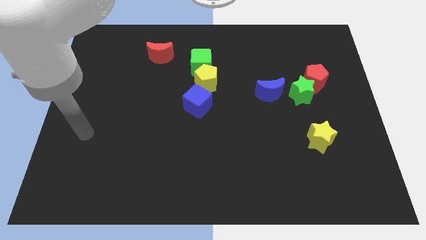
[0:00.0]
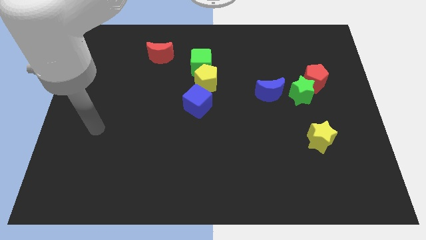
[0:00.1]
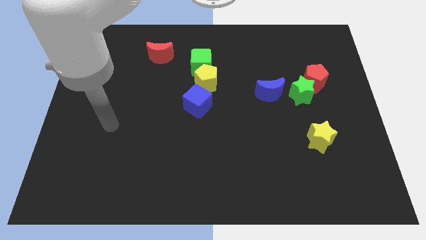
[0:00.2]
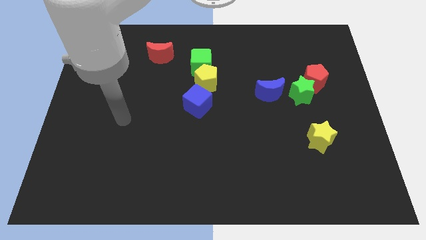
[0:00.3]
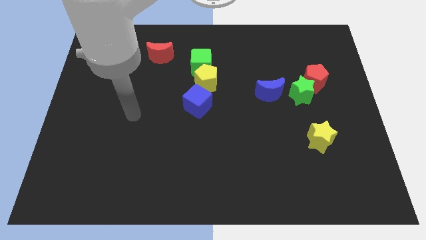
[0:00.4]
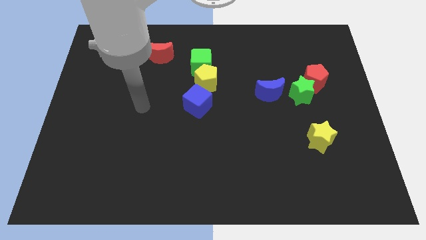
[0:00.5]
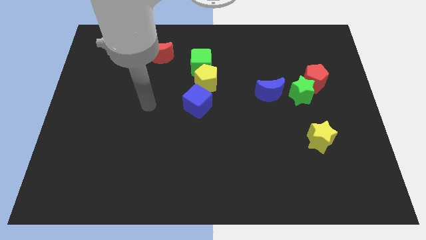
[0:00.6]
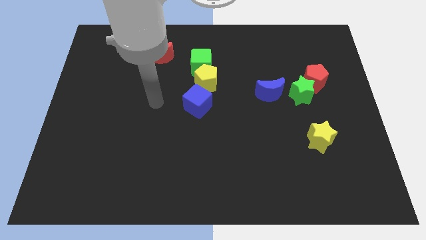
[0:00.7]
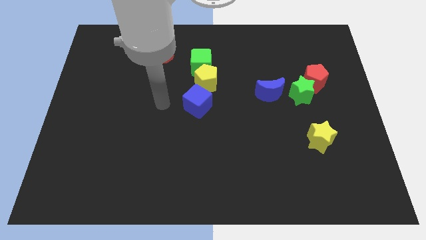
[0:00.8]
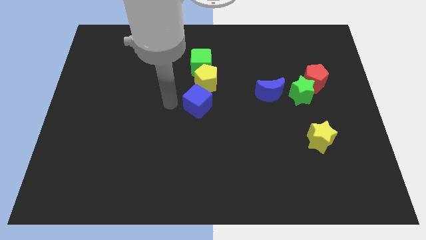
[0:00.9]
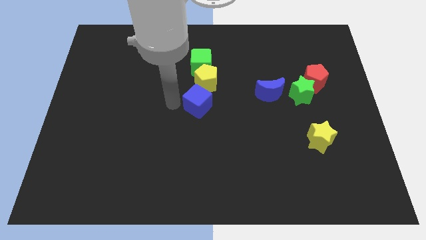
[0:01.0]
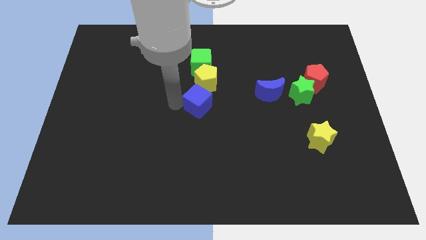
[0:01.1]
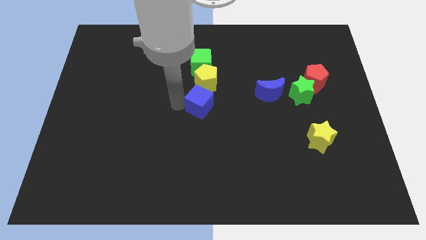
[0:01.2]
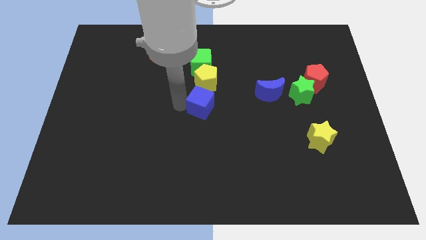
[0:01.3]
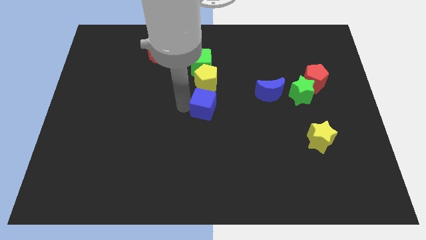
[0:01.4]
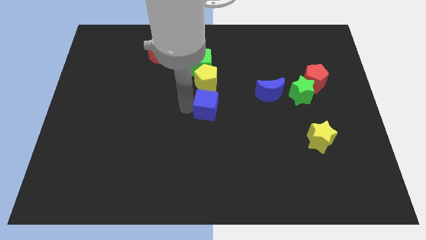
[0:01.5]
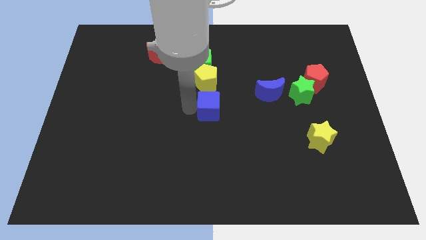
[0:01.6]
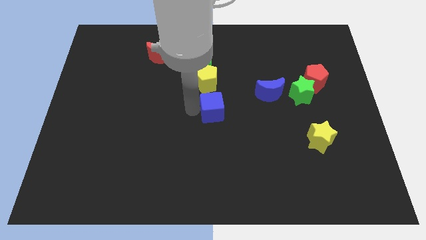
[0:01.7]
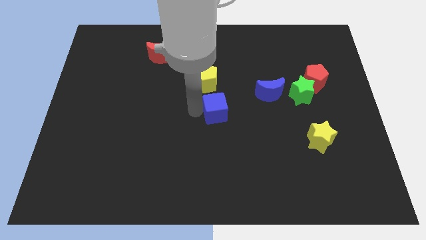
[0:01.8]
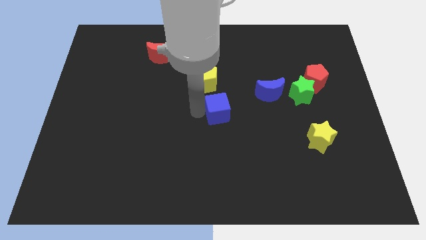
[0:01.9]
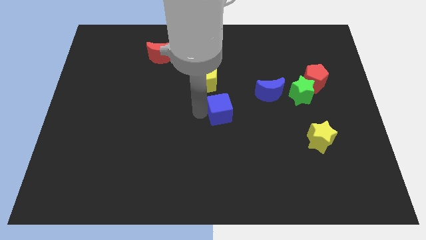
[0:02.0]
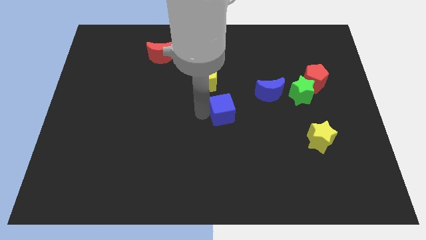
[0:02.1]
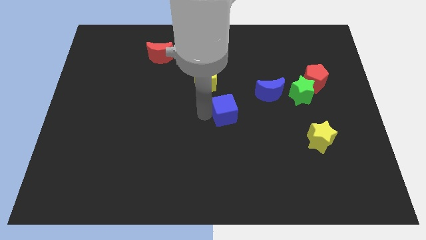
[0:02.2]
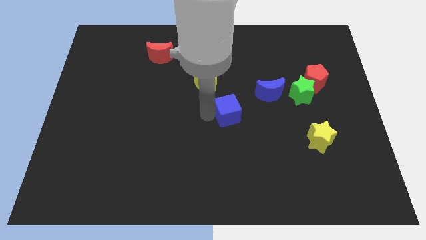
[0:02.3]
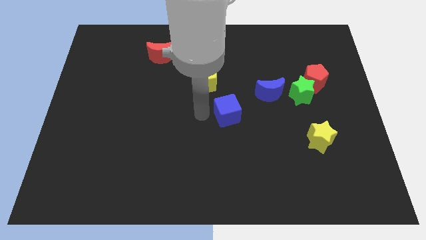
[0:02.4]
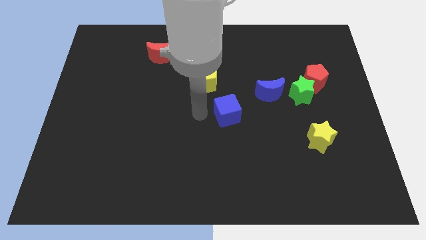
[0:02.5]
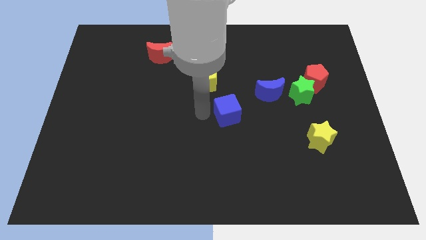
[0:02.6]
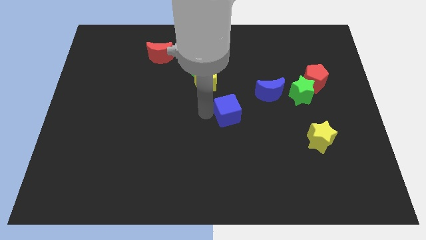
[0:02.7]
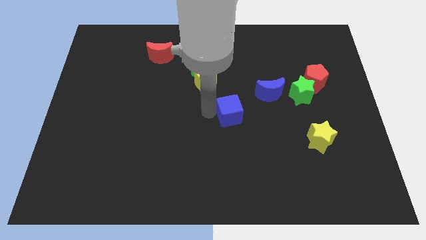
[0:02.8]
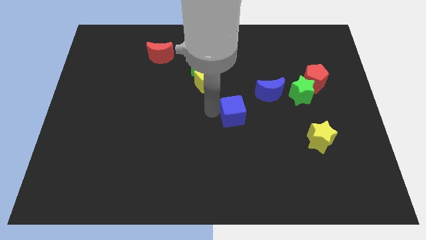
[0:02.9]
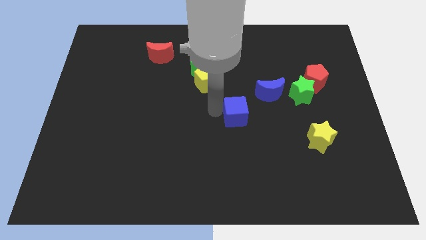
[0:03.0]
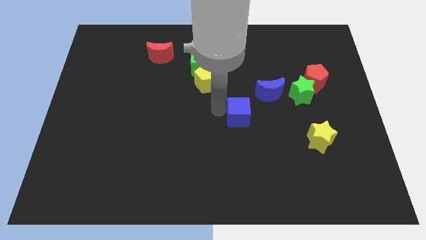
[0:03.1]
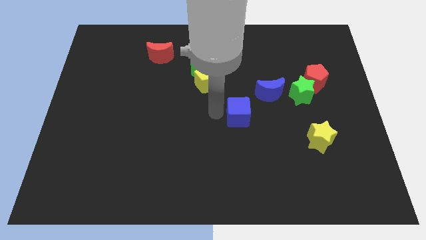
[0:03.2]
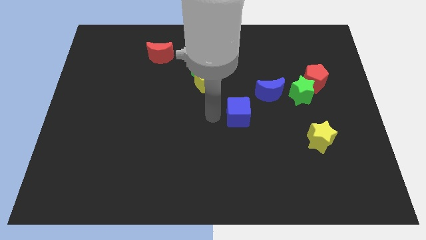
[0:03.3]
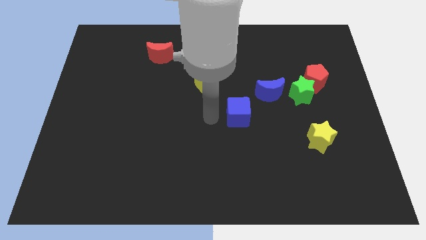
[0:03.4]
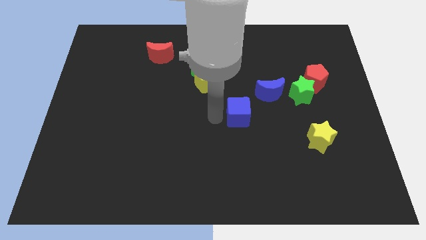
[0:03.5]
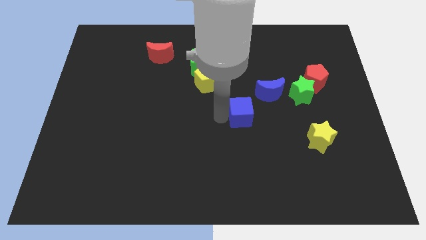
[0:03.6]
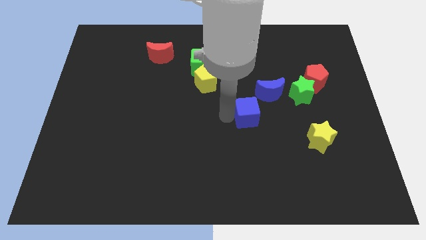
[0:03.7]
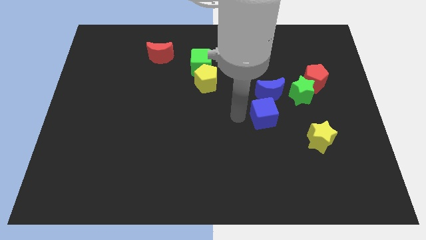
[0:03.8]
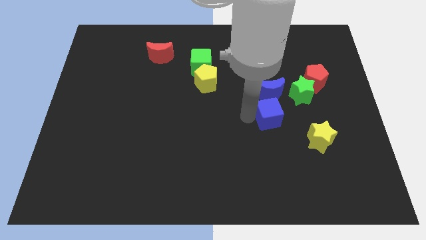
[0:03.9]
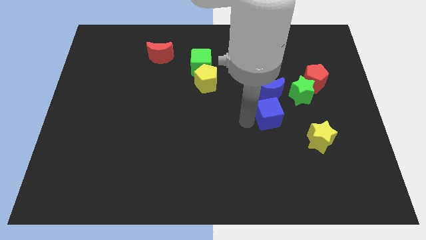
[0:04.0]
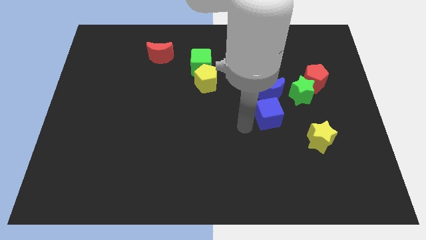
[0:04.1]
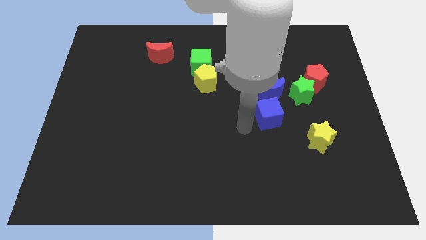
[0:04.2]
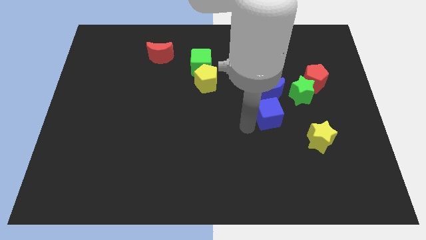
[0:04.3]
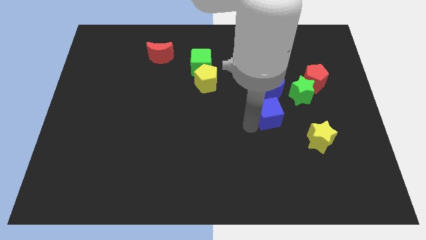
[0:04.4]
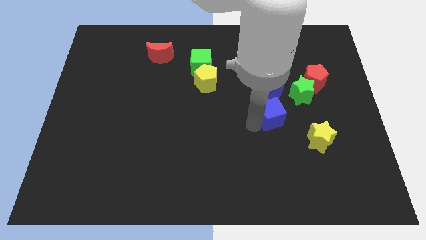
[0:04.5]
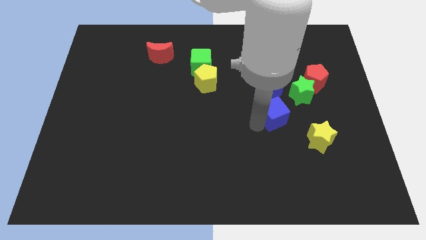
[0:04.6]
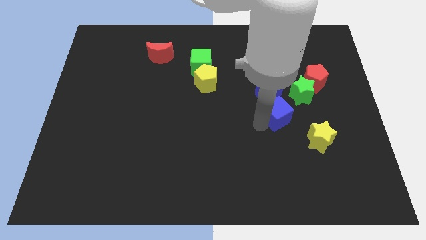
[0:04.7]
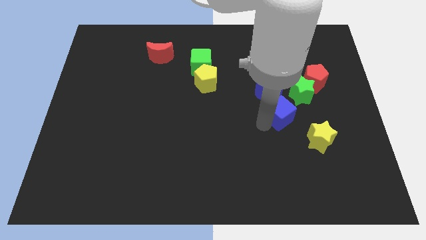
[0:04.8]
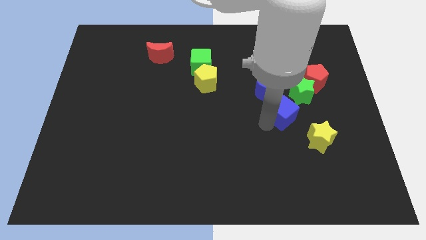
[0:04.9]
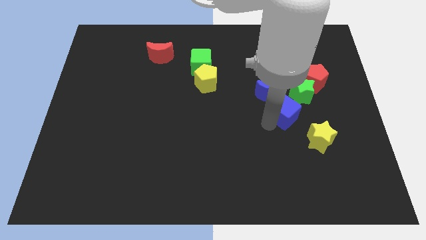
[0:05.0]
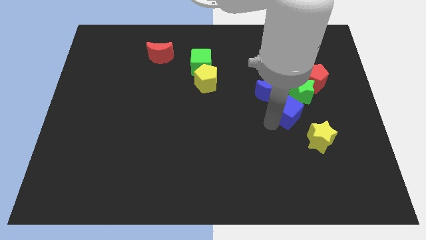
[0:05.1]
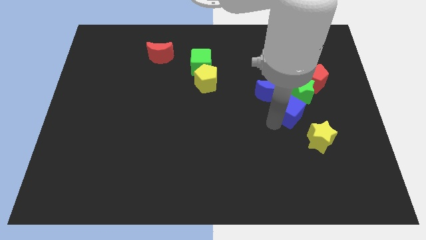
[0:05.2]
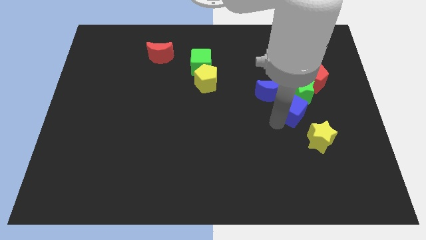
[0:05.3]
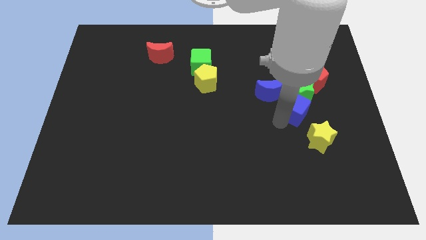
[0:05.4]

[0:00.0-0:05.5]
slide the blue cube next to the green star

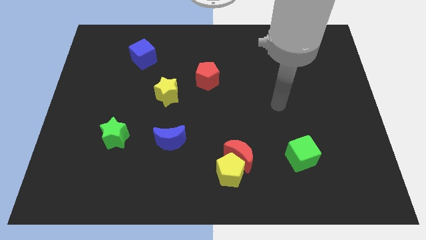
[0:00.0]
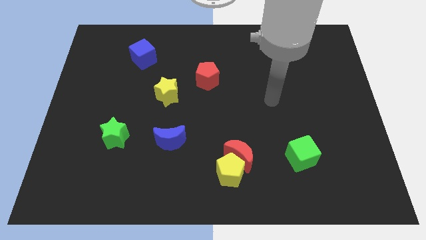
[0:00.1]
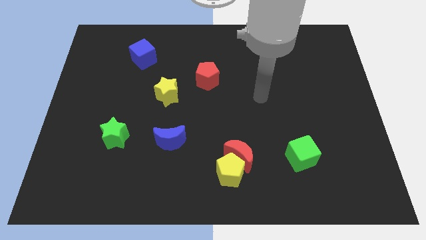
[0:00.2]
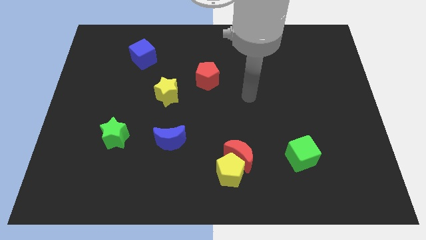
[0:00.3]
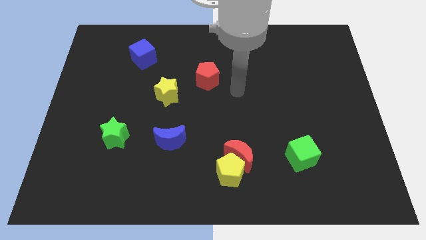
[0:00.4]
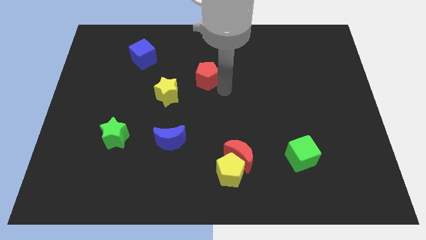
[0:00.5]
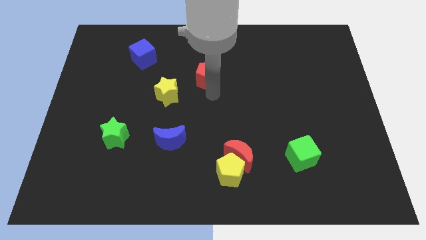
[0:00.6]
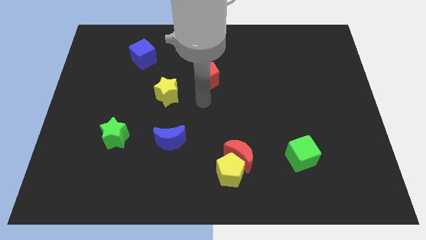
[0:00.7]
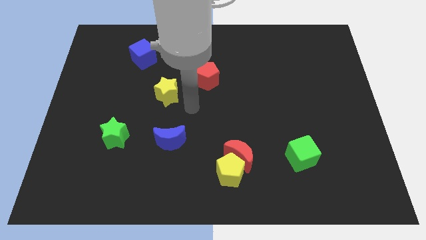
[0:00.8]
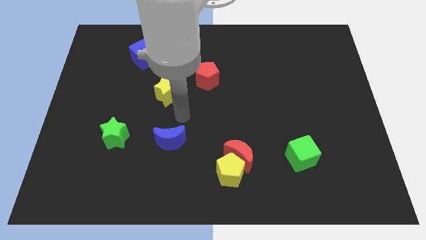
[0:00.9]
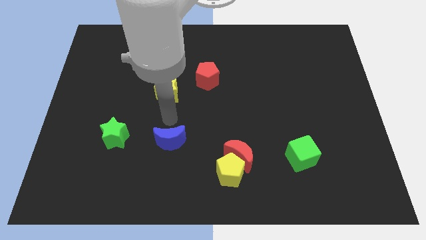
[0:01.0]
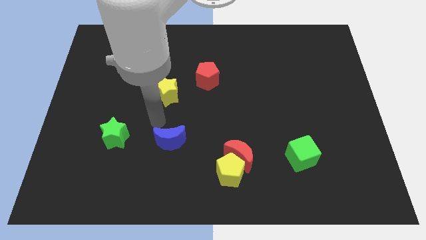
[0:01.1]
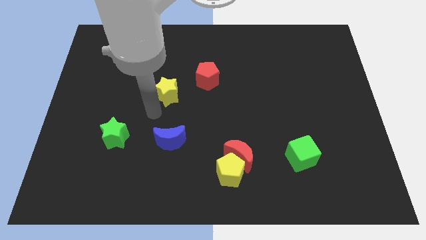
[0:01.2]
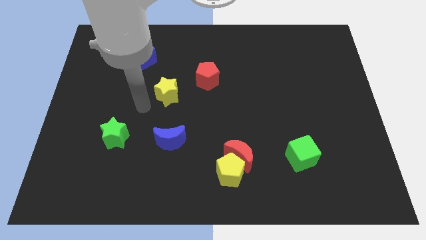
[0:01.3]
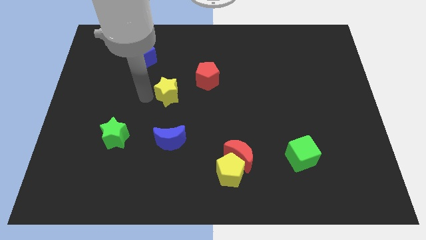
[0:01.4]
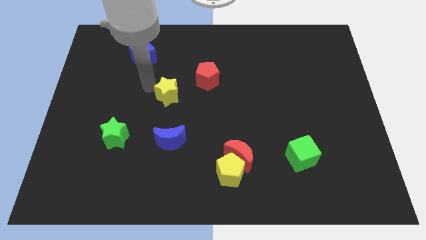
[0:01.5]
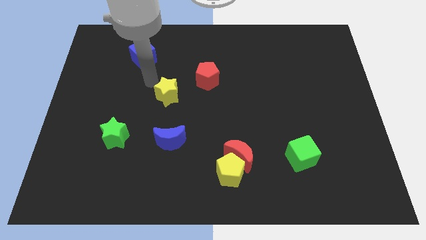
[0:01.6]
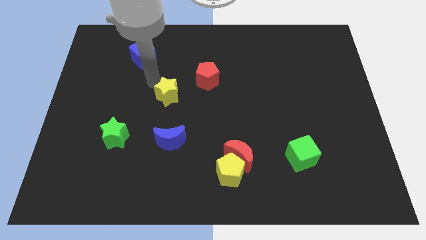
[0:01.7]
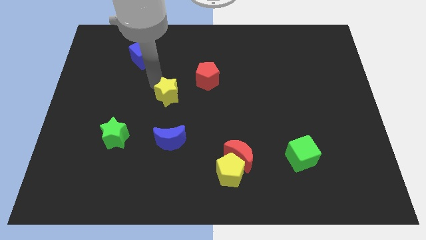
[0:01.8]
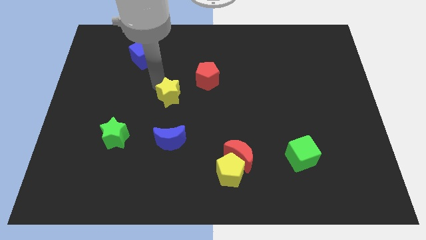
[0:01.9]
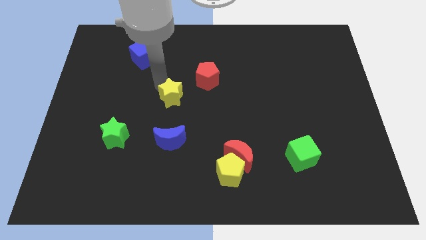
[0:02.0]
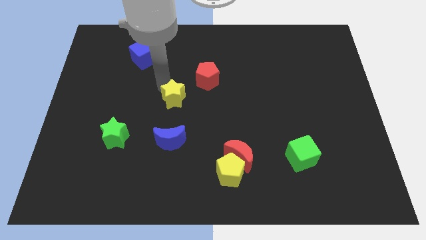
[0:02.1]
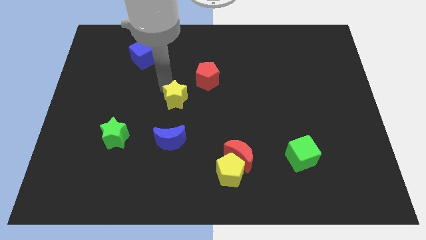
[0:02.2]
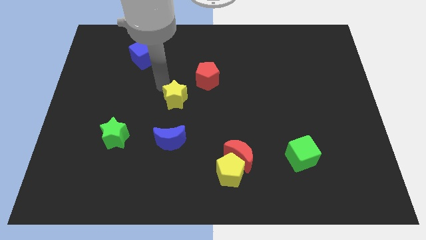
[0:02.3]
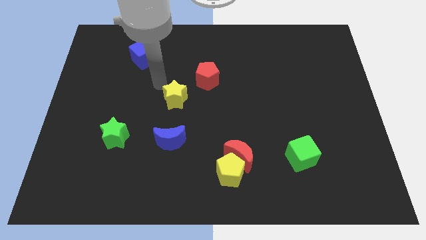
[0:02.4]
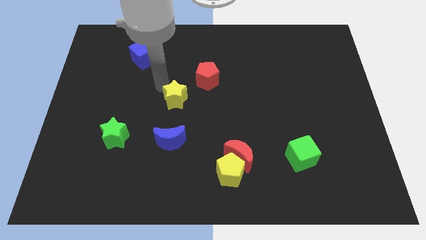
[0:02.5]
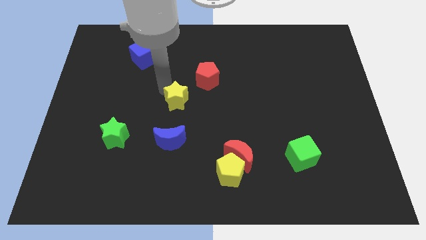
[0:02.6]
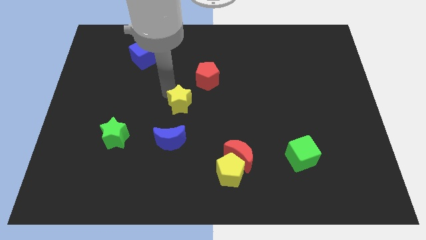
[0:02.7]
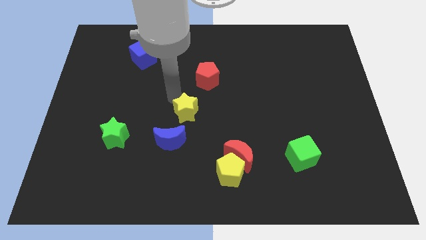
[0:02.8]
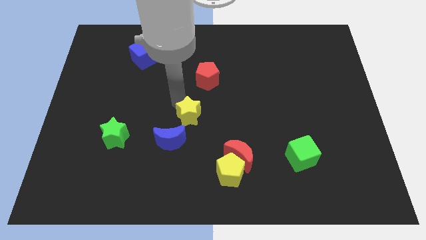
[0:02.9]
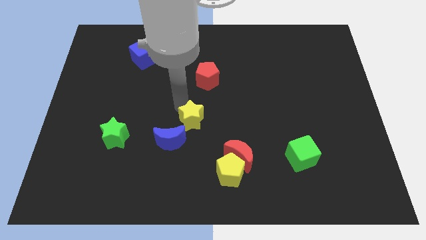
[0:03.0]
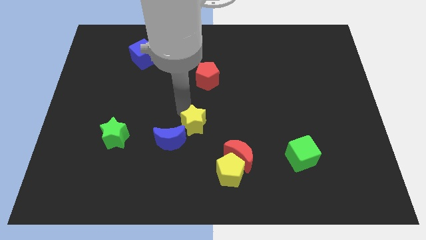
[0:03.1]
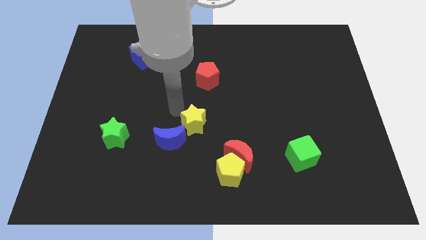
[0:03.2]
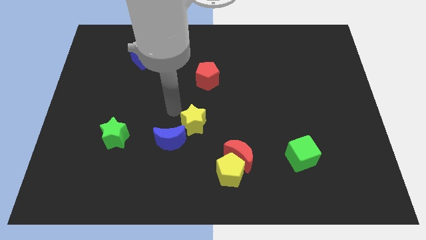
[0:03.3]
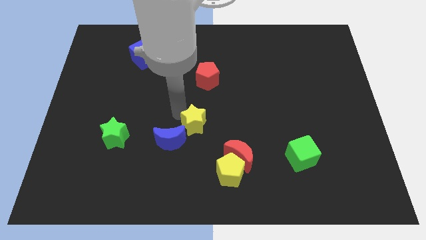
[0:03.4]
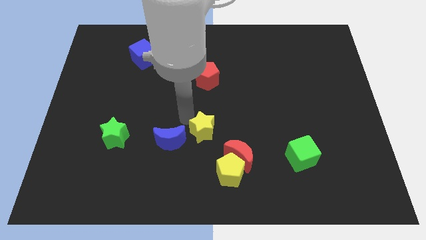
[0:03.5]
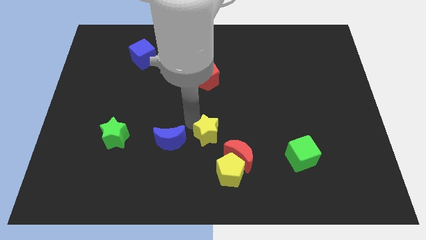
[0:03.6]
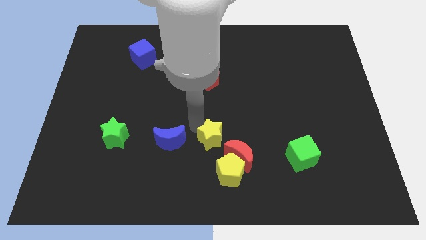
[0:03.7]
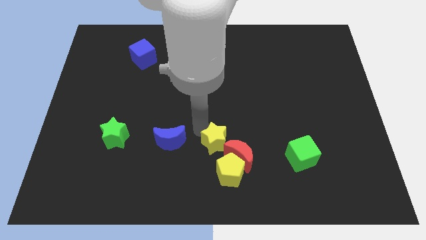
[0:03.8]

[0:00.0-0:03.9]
put the yellow star towards the red moon
